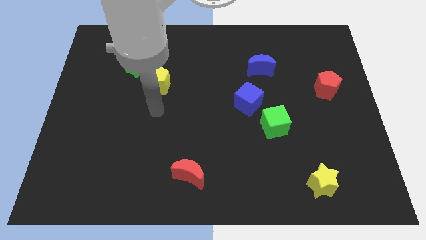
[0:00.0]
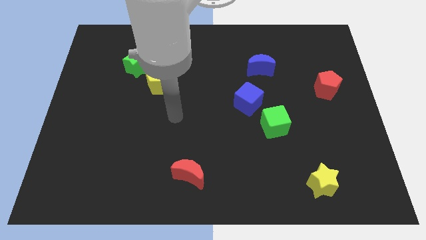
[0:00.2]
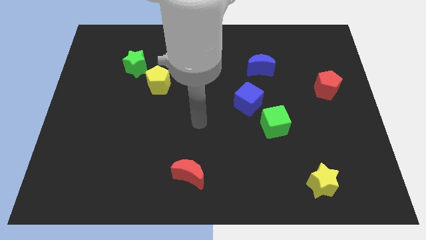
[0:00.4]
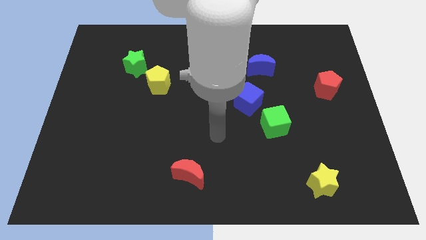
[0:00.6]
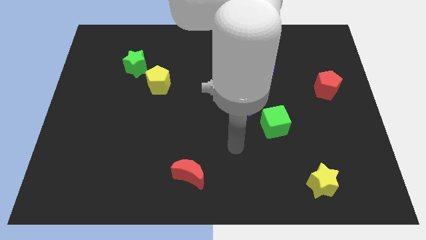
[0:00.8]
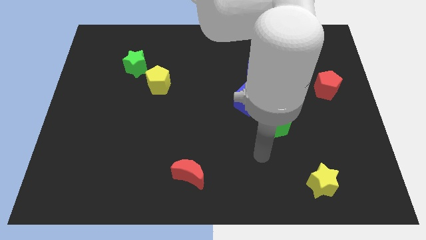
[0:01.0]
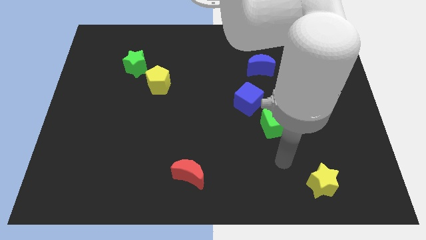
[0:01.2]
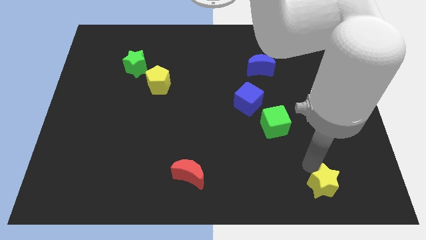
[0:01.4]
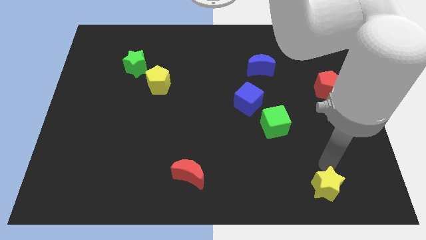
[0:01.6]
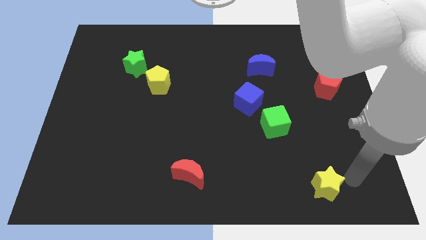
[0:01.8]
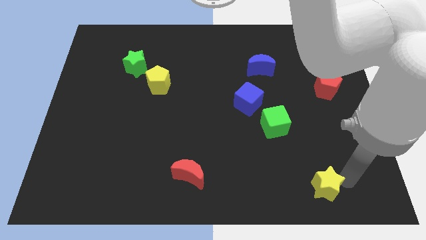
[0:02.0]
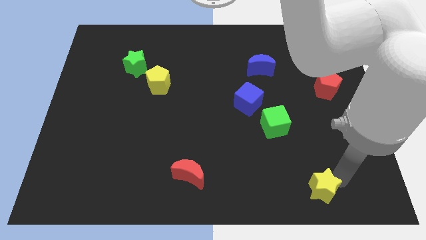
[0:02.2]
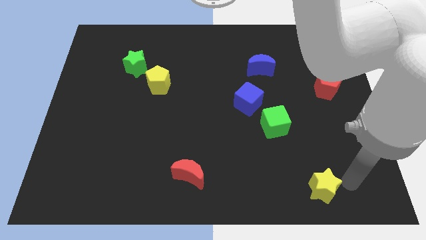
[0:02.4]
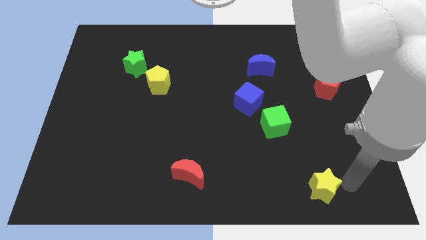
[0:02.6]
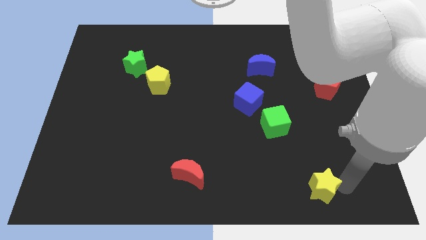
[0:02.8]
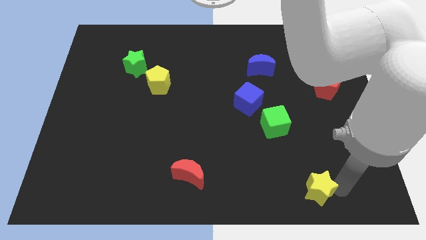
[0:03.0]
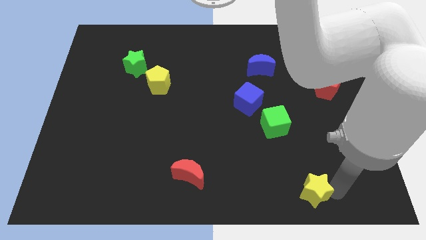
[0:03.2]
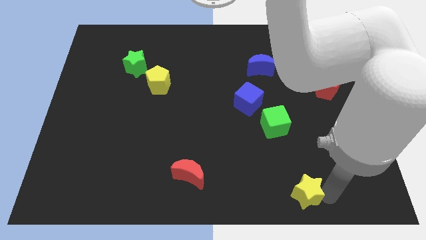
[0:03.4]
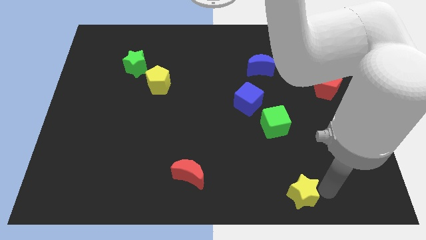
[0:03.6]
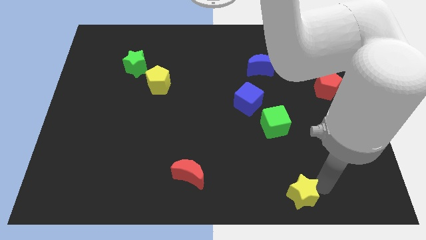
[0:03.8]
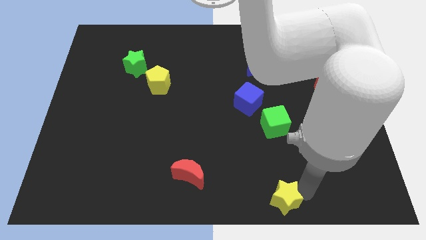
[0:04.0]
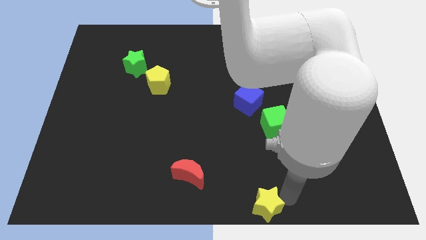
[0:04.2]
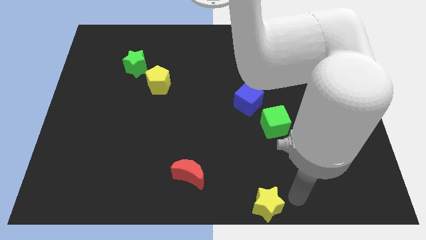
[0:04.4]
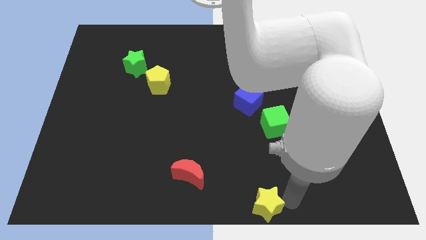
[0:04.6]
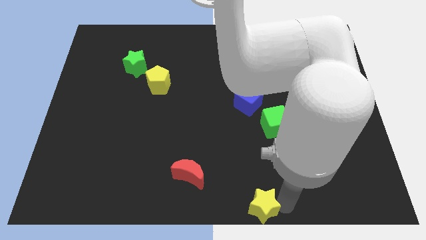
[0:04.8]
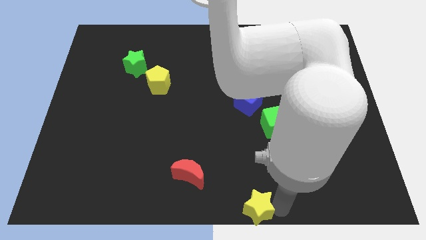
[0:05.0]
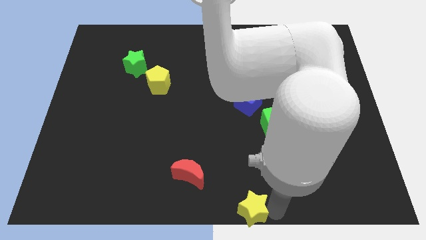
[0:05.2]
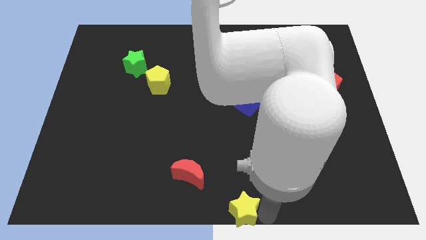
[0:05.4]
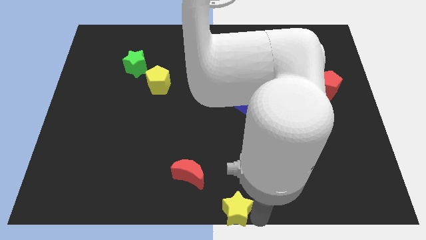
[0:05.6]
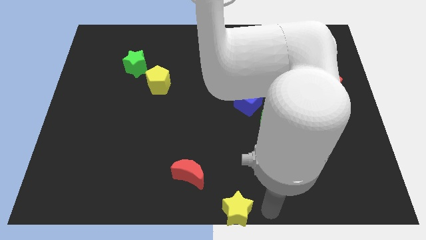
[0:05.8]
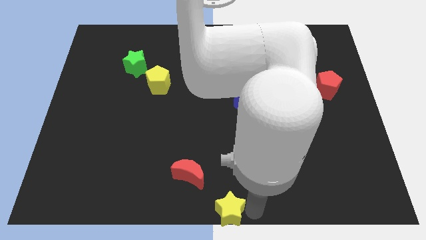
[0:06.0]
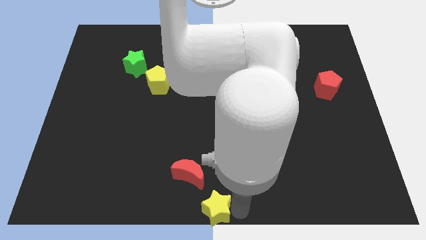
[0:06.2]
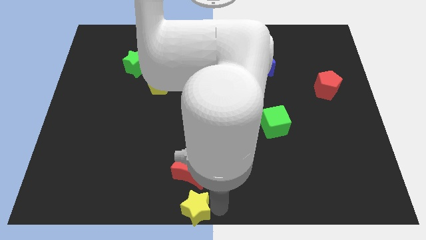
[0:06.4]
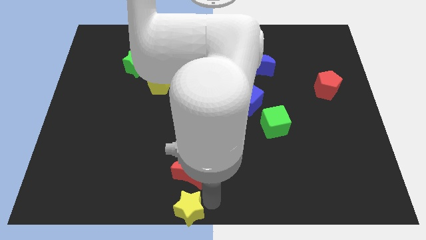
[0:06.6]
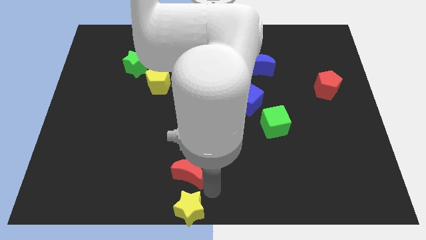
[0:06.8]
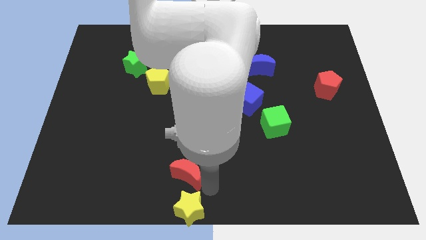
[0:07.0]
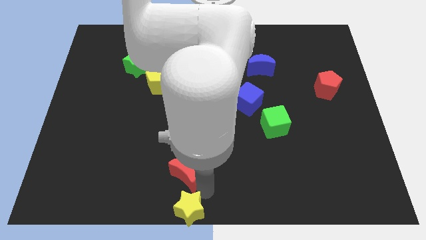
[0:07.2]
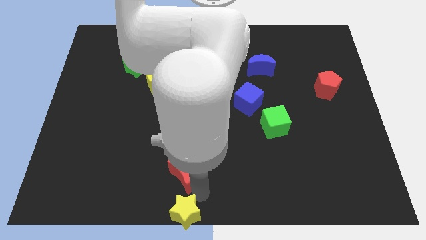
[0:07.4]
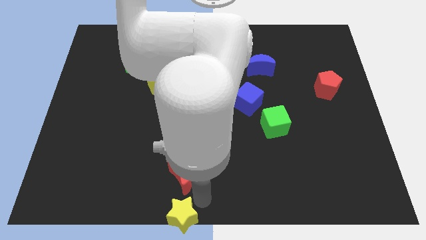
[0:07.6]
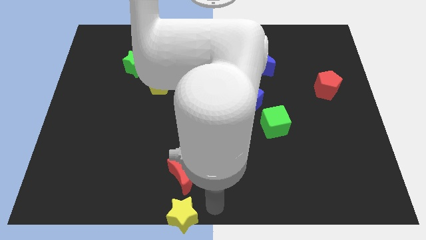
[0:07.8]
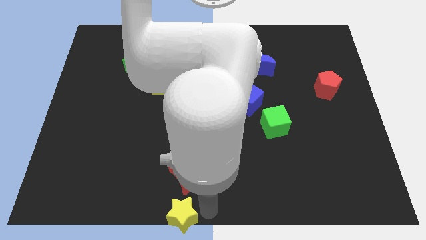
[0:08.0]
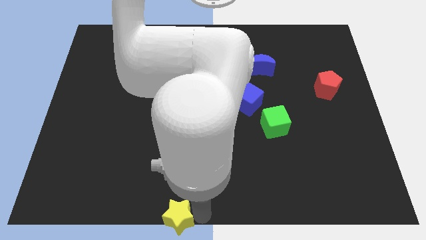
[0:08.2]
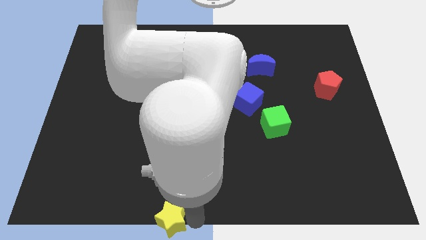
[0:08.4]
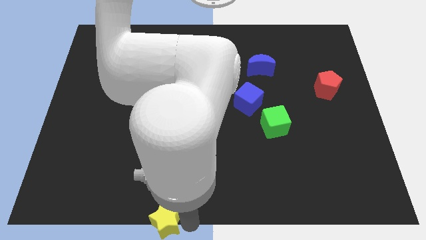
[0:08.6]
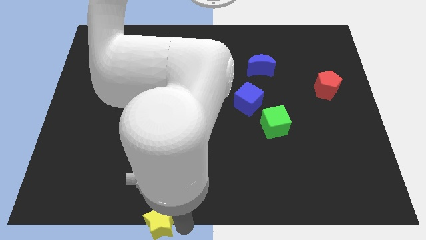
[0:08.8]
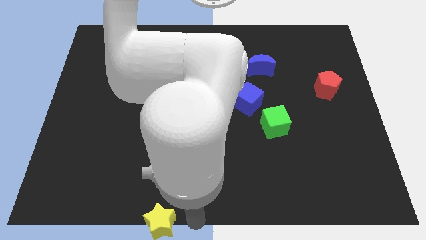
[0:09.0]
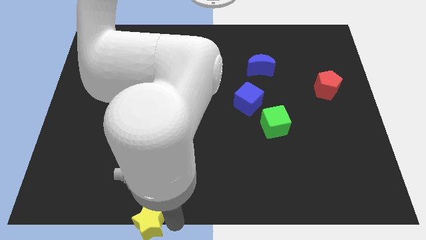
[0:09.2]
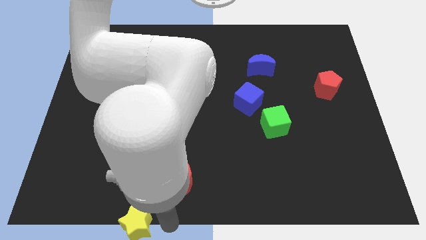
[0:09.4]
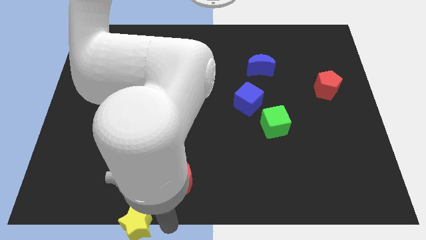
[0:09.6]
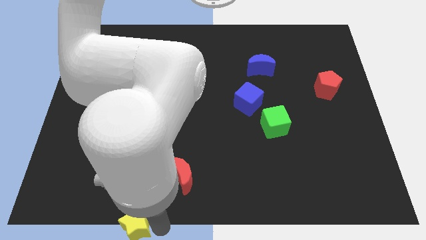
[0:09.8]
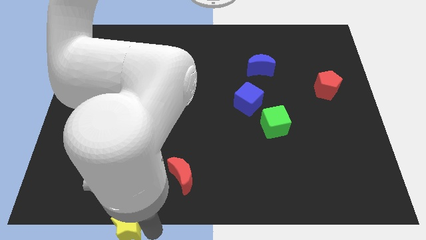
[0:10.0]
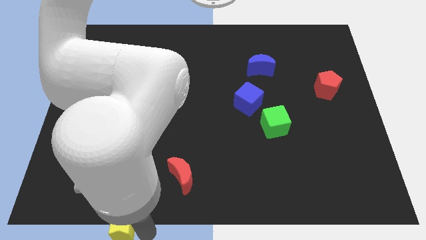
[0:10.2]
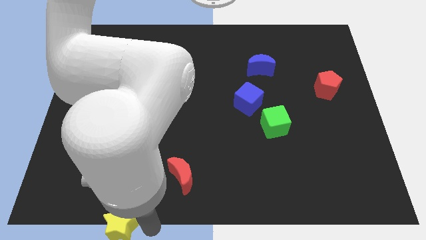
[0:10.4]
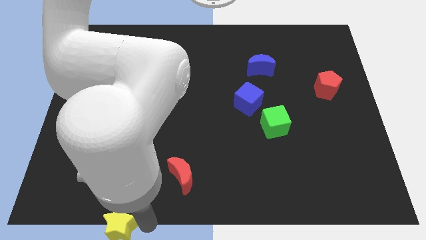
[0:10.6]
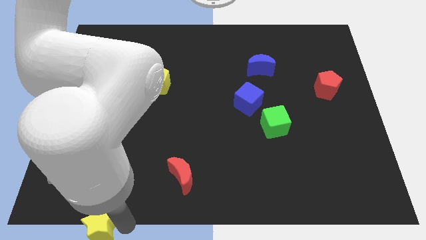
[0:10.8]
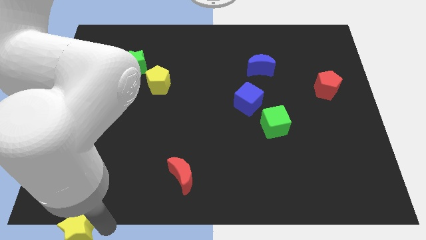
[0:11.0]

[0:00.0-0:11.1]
move the yellow star to the lower left corner
